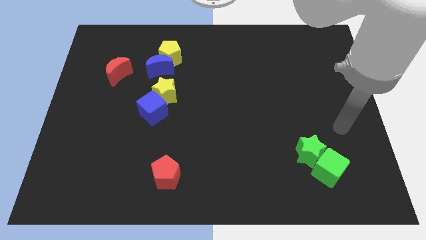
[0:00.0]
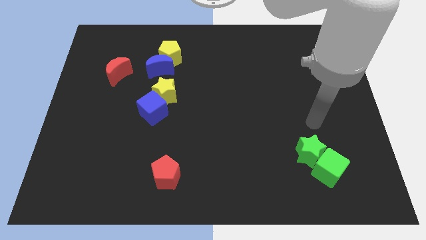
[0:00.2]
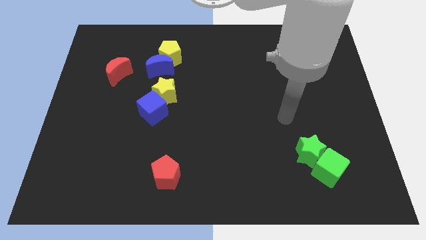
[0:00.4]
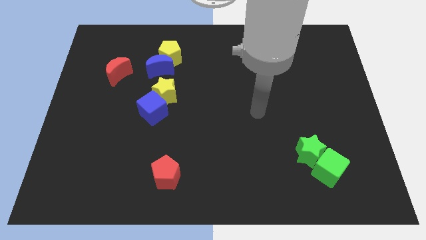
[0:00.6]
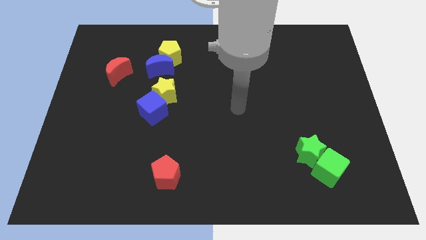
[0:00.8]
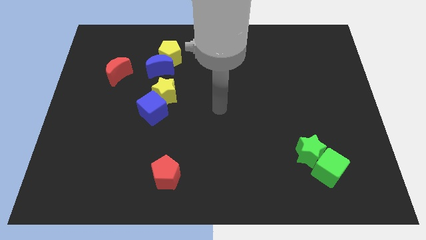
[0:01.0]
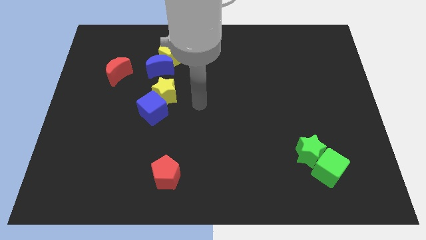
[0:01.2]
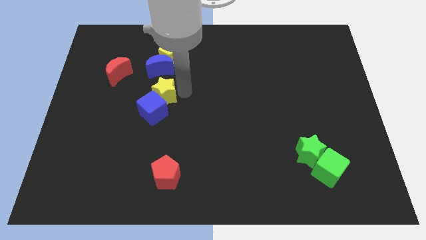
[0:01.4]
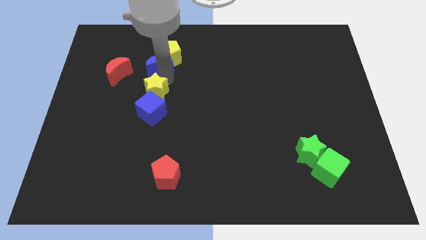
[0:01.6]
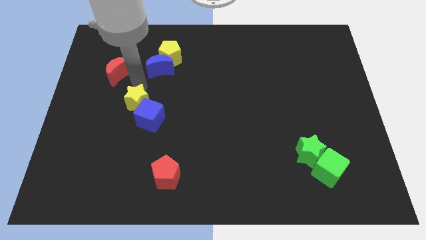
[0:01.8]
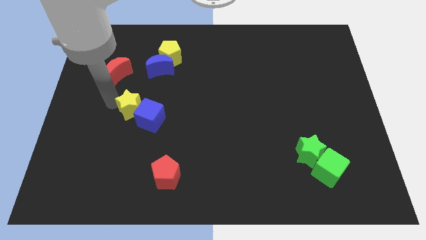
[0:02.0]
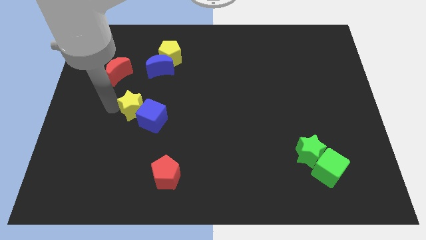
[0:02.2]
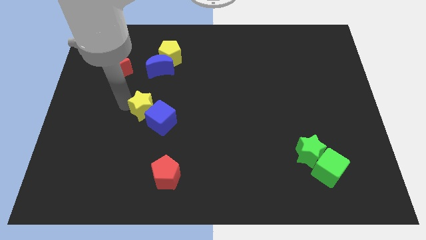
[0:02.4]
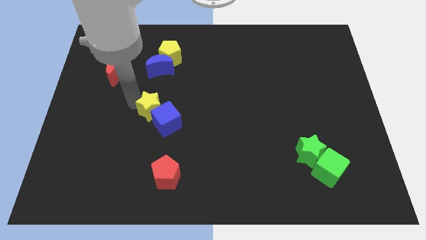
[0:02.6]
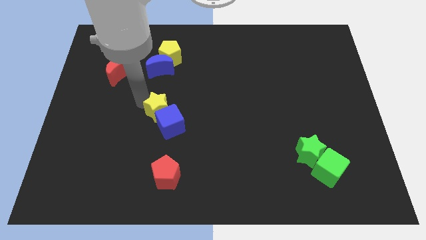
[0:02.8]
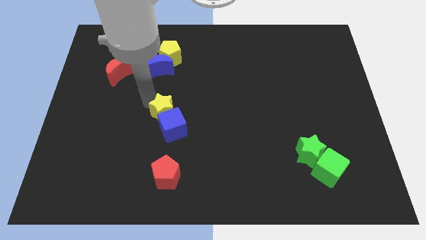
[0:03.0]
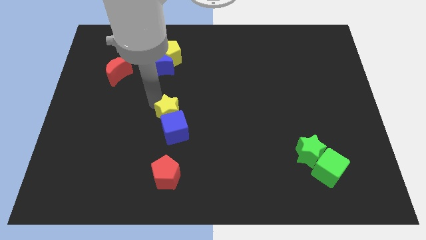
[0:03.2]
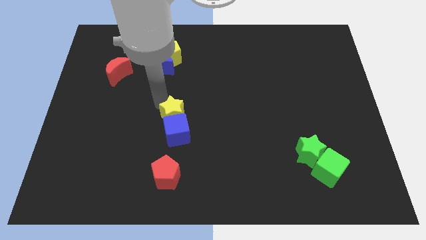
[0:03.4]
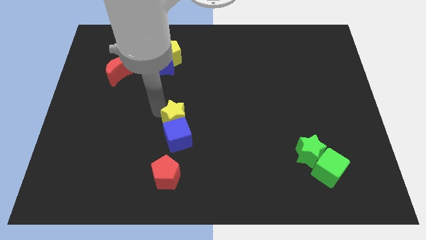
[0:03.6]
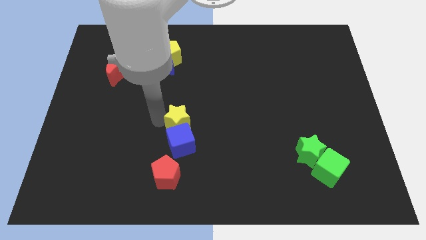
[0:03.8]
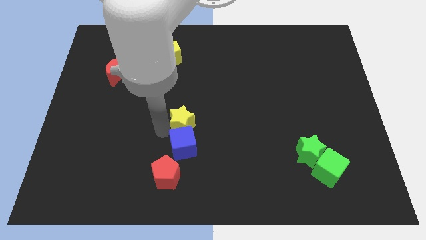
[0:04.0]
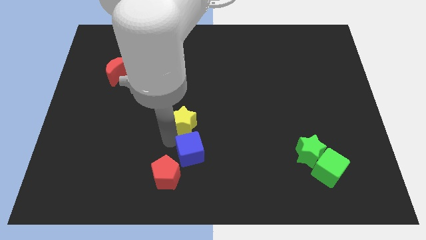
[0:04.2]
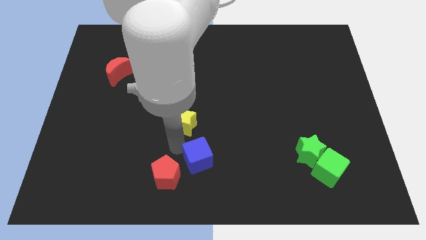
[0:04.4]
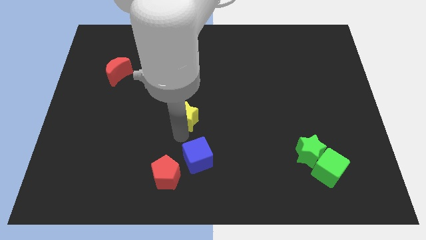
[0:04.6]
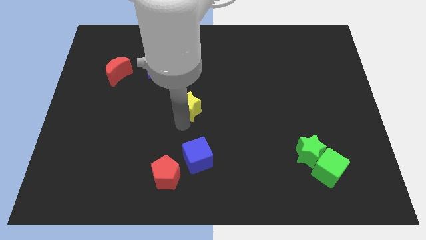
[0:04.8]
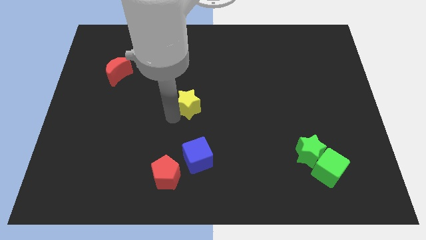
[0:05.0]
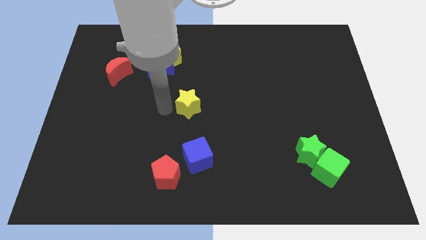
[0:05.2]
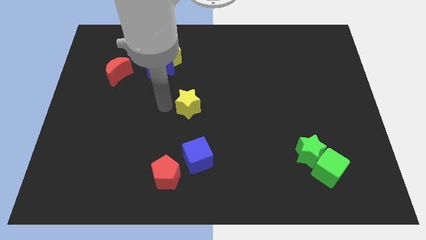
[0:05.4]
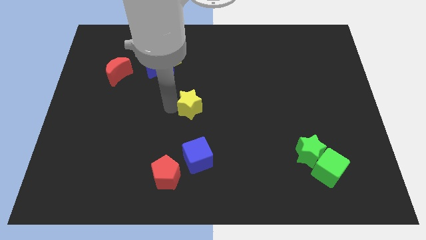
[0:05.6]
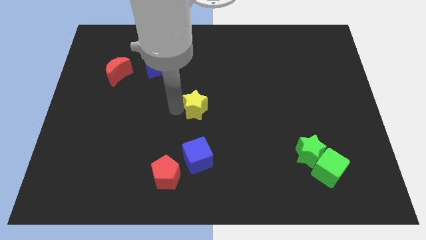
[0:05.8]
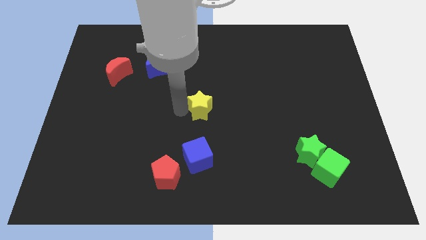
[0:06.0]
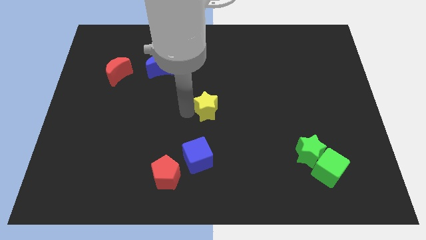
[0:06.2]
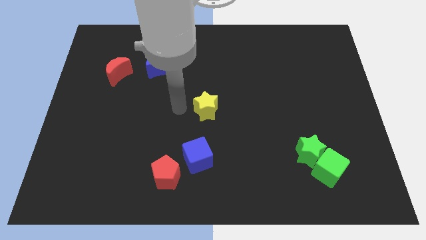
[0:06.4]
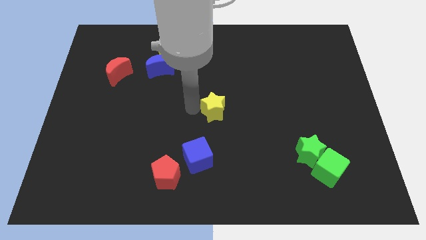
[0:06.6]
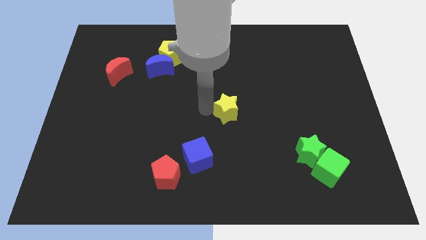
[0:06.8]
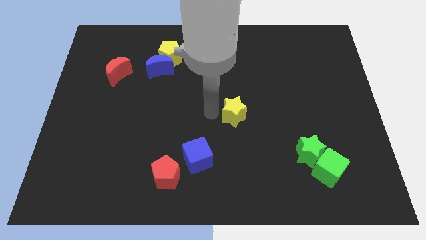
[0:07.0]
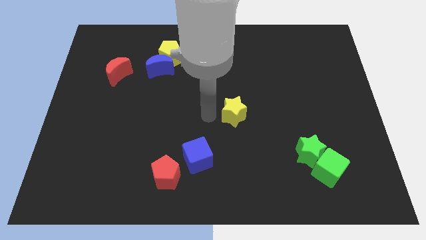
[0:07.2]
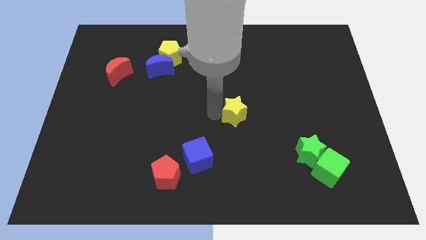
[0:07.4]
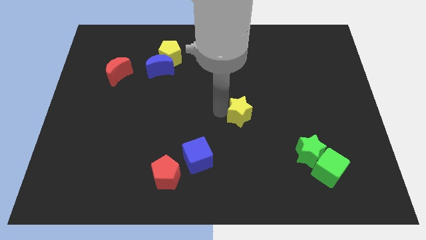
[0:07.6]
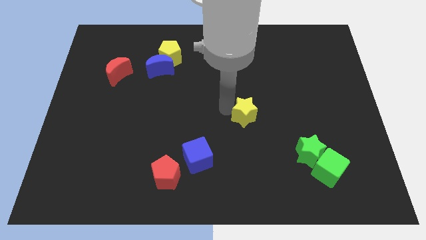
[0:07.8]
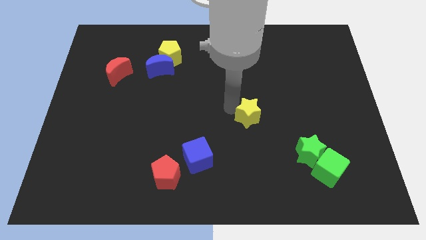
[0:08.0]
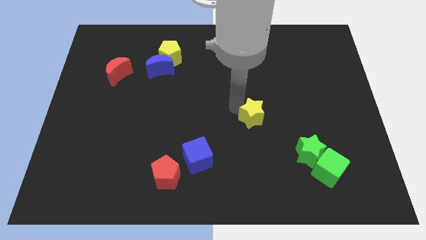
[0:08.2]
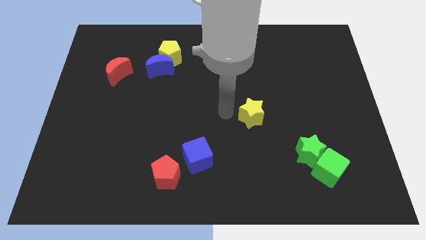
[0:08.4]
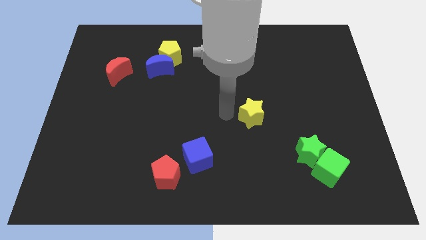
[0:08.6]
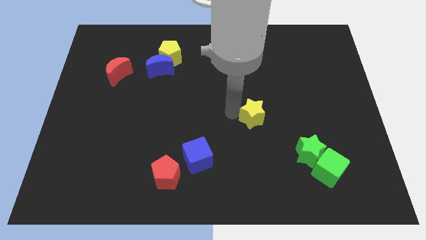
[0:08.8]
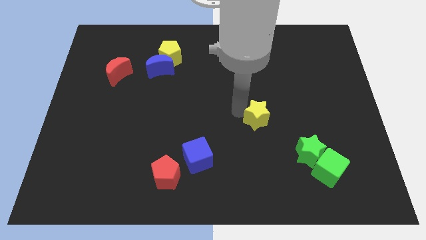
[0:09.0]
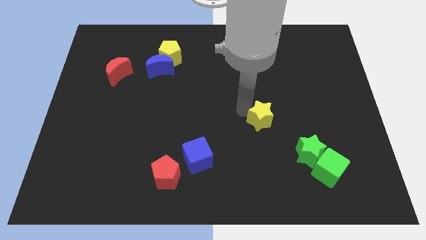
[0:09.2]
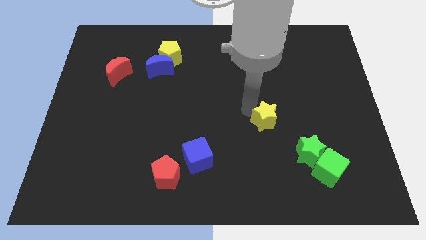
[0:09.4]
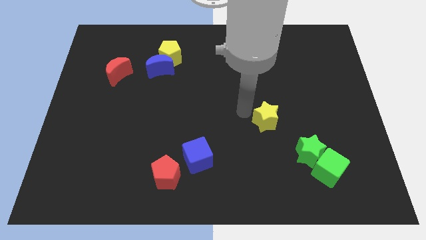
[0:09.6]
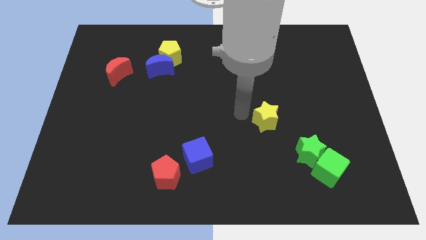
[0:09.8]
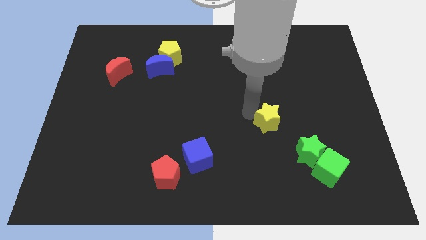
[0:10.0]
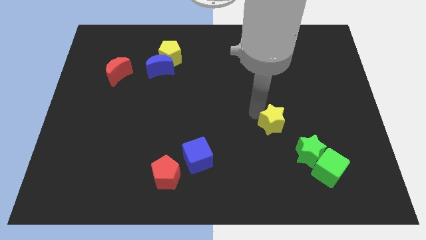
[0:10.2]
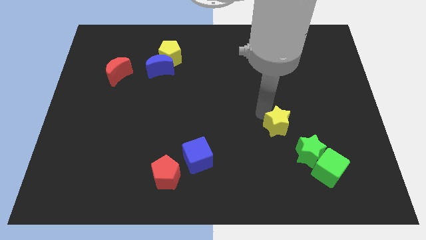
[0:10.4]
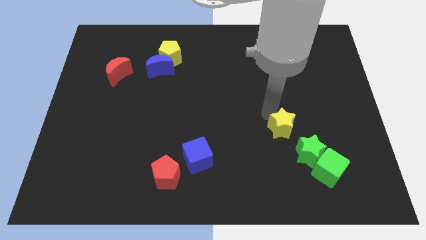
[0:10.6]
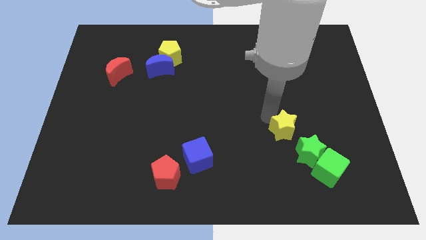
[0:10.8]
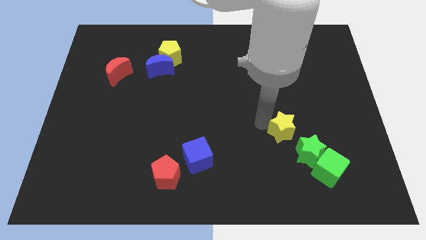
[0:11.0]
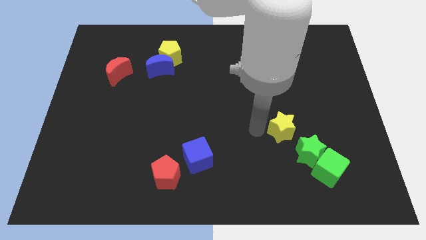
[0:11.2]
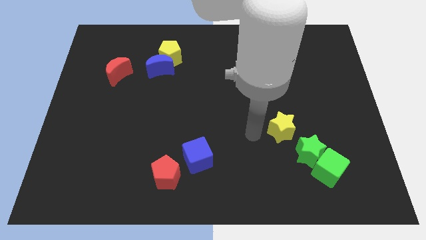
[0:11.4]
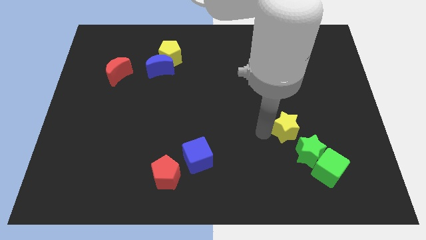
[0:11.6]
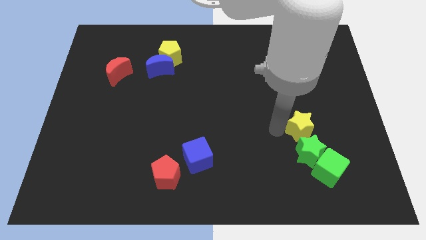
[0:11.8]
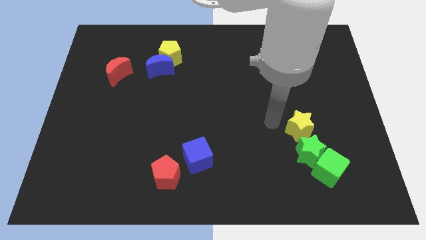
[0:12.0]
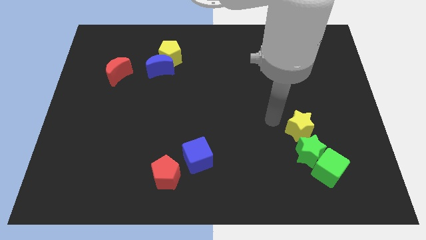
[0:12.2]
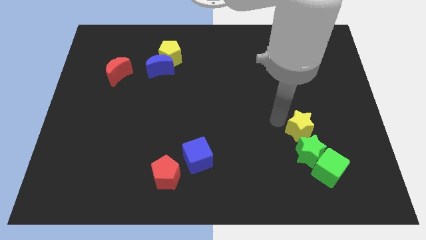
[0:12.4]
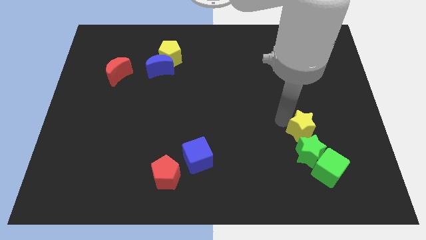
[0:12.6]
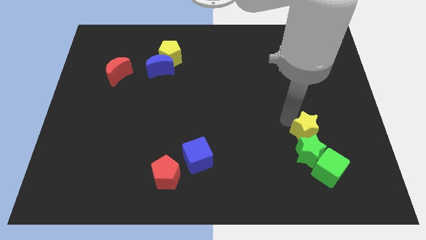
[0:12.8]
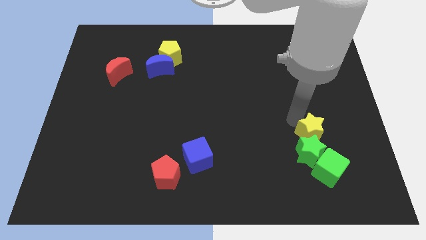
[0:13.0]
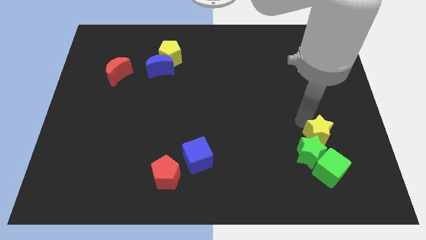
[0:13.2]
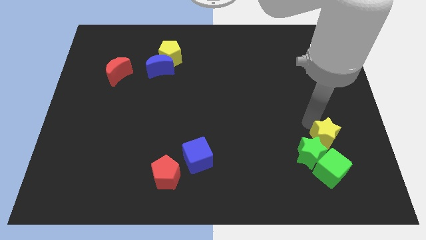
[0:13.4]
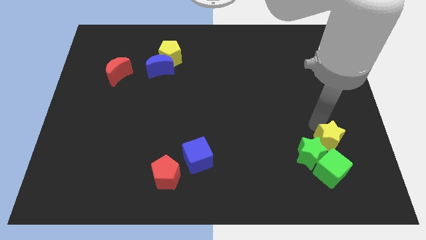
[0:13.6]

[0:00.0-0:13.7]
push the yellow star to the top right side of the green cube
